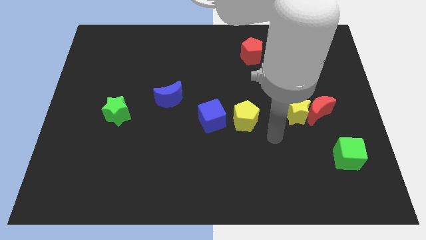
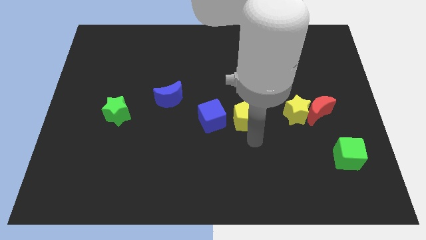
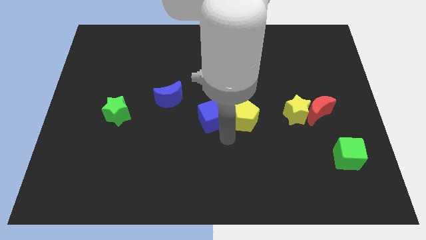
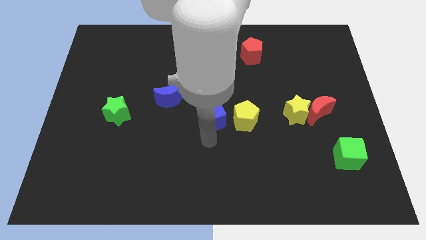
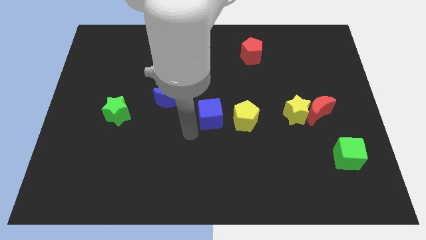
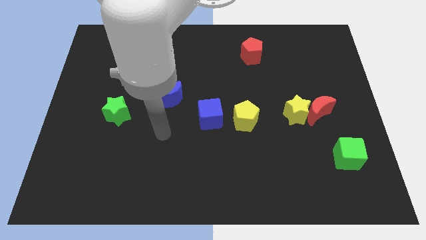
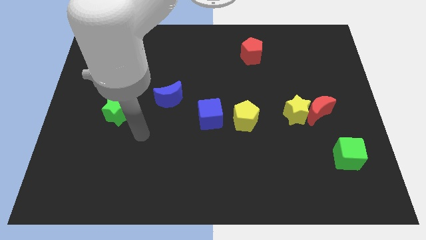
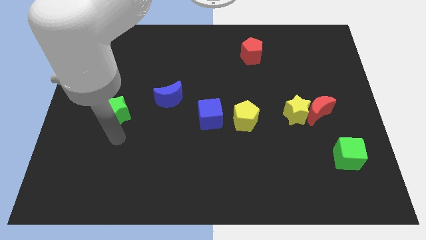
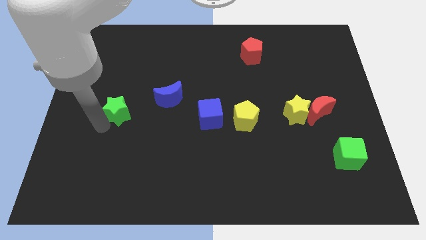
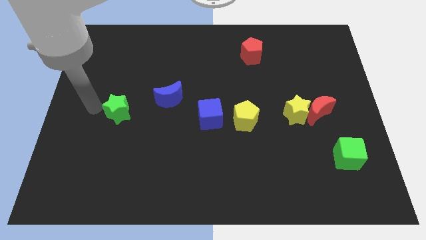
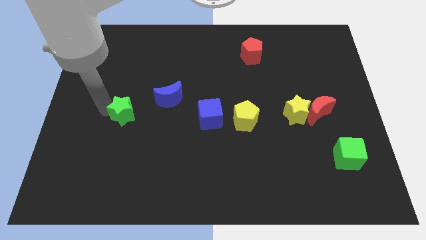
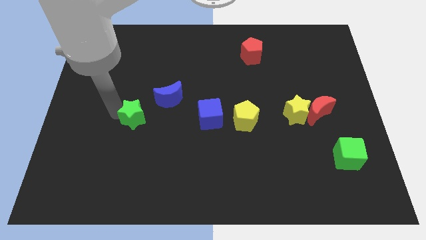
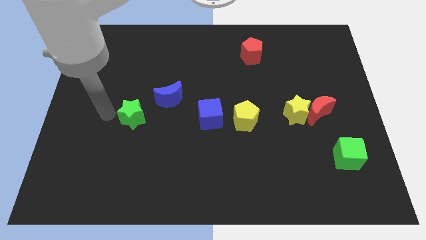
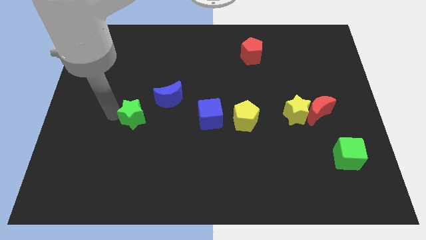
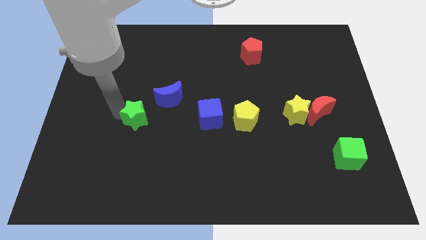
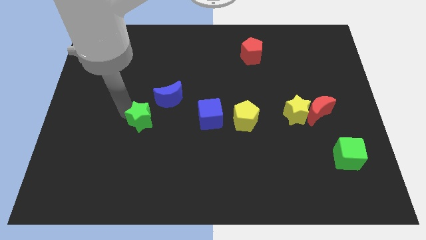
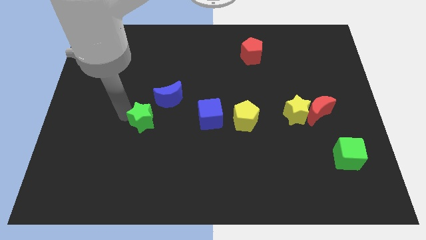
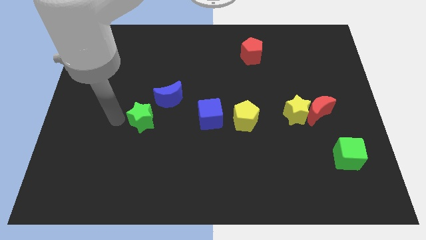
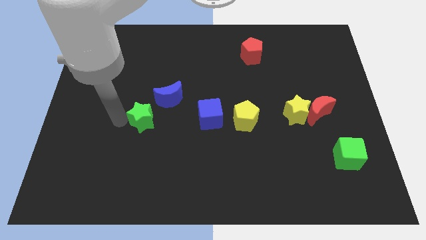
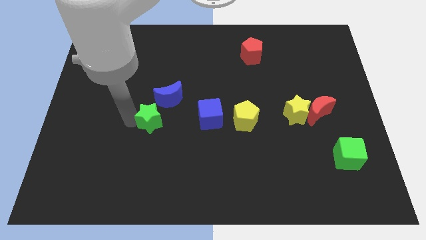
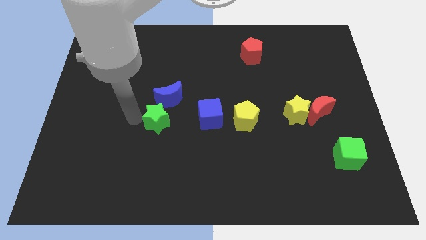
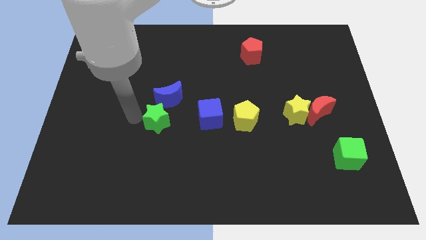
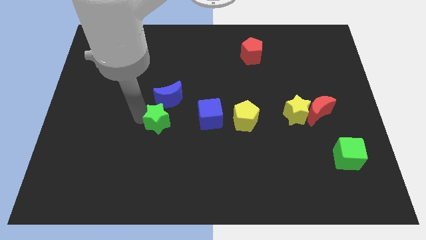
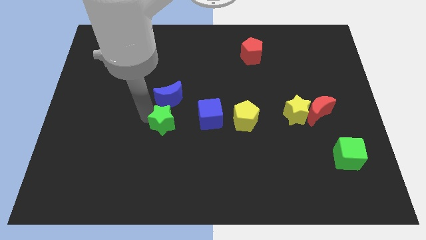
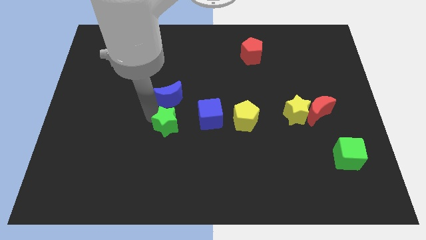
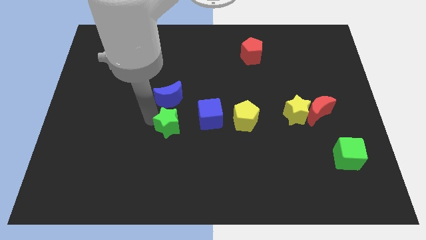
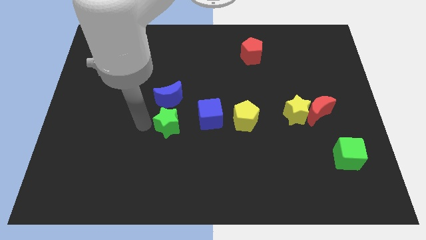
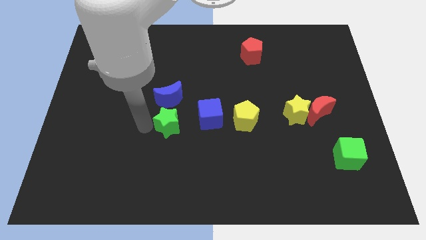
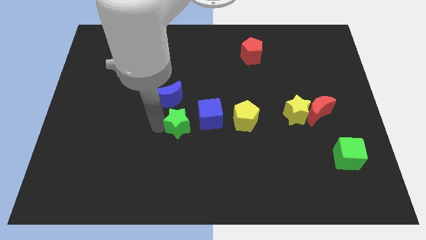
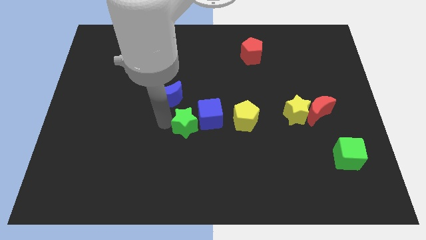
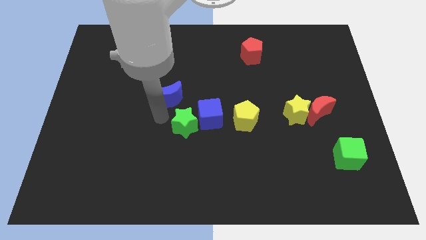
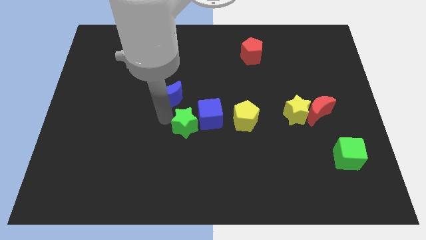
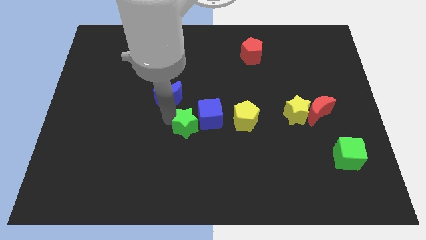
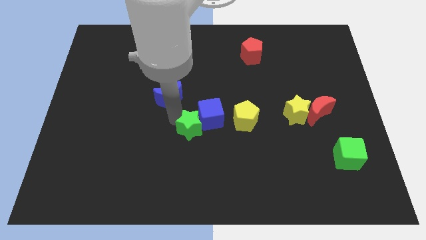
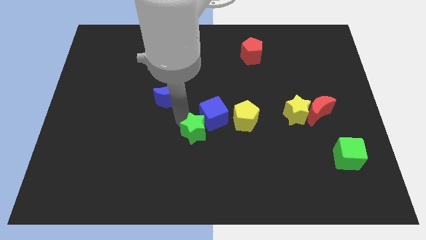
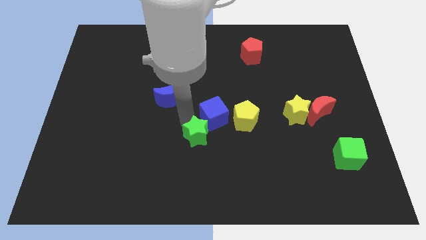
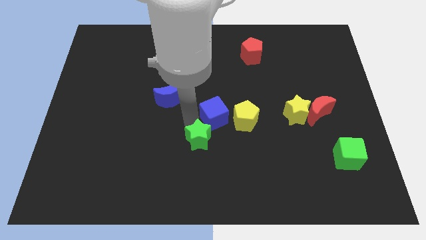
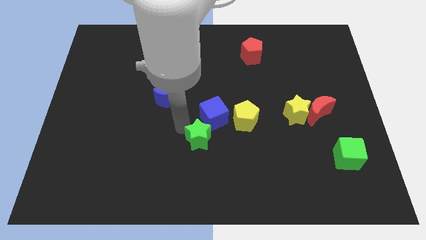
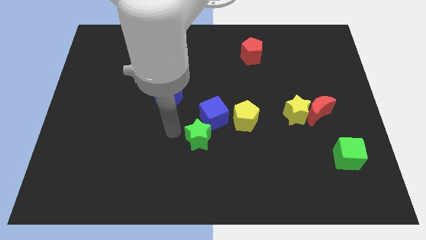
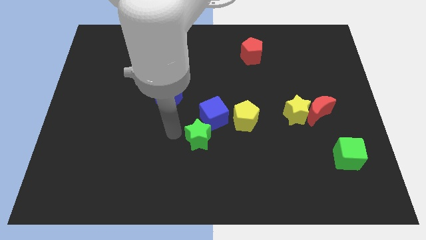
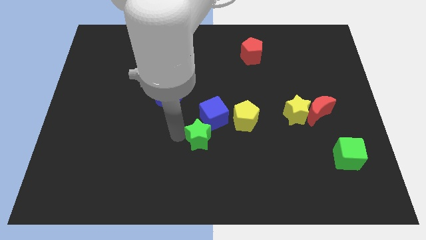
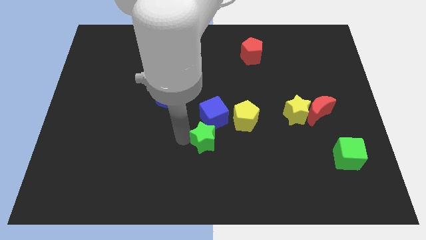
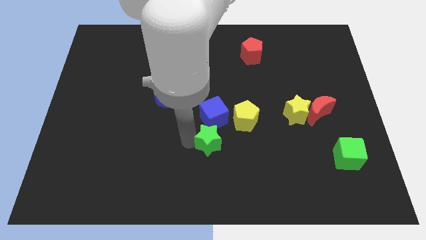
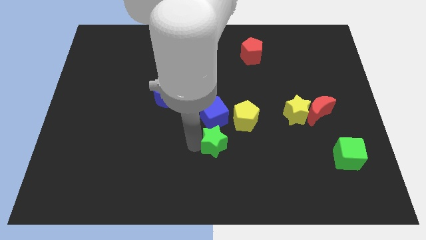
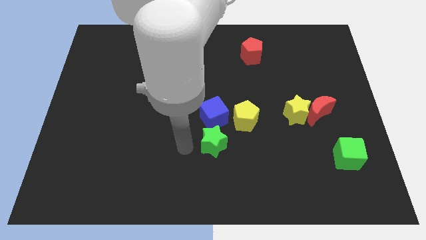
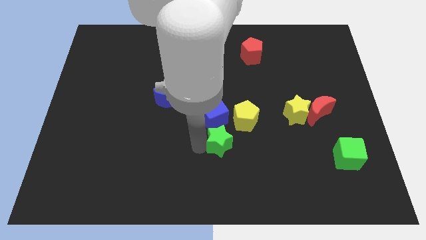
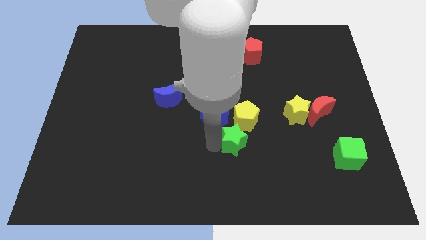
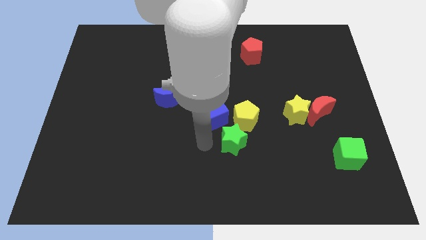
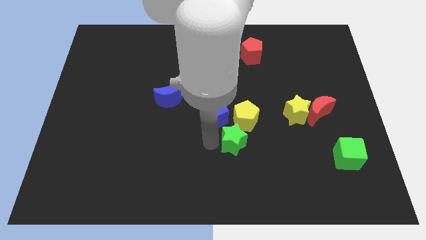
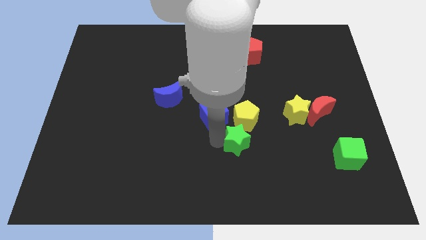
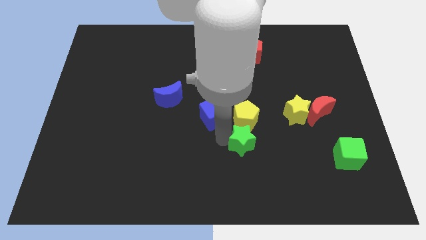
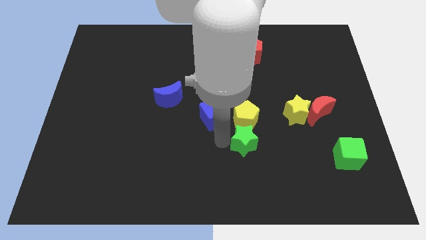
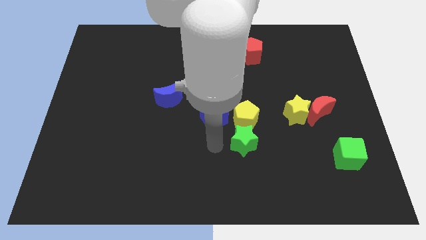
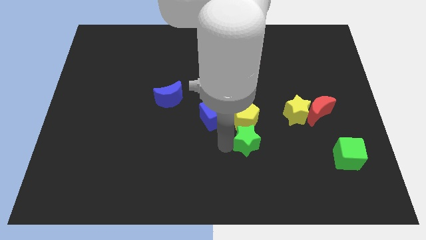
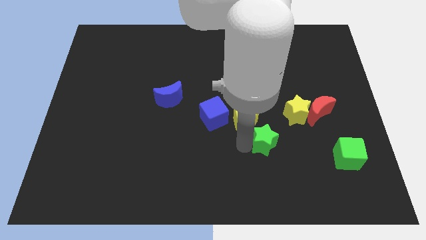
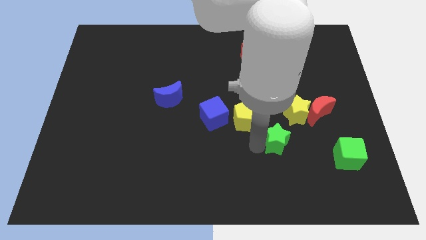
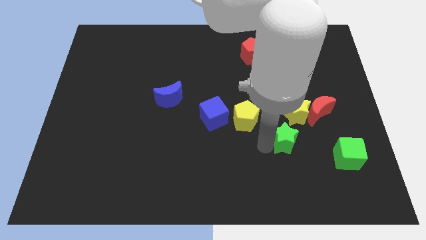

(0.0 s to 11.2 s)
slide the green star to the bottom left of the red moon

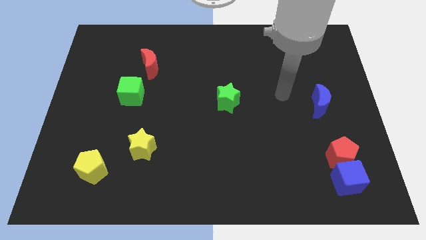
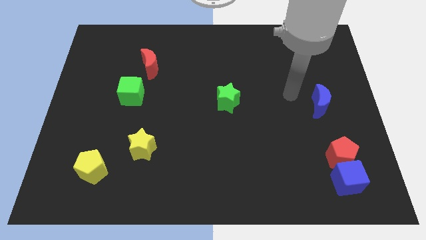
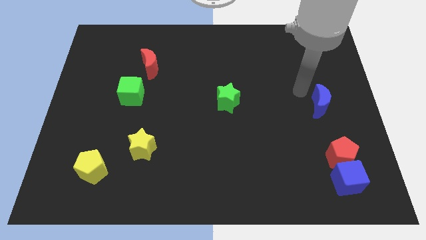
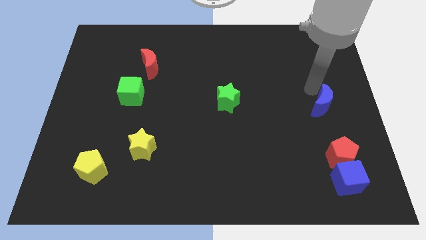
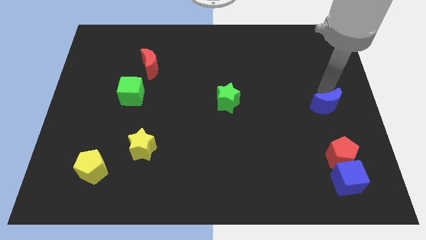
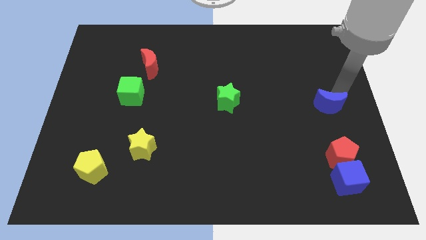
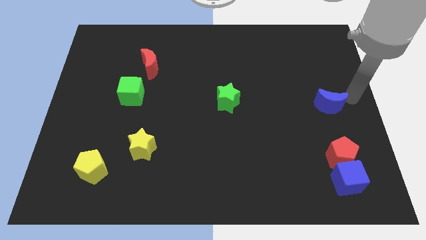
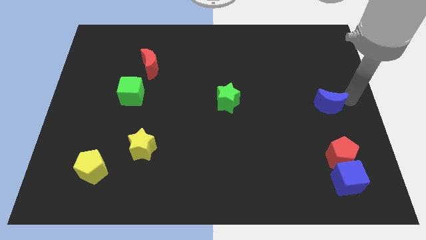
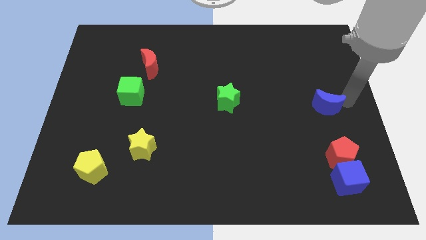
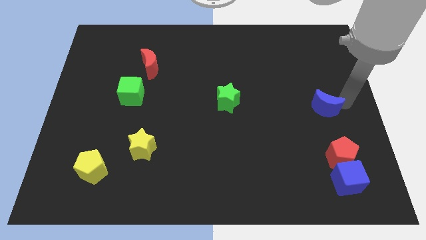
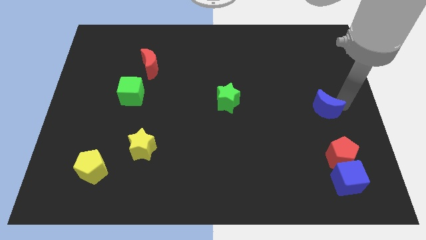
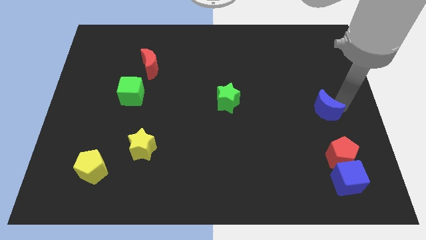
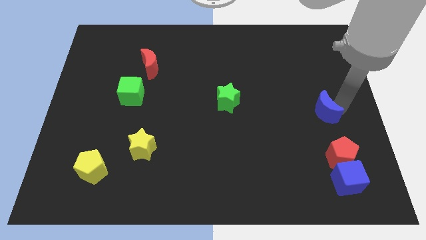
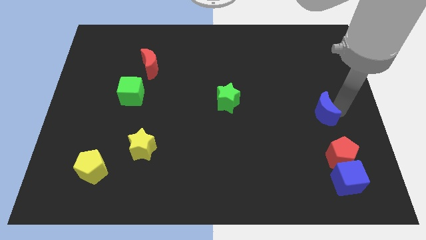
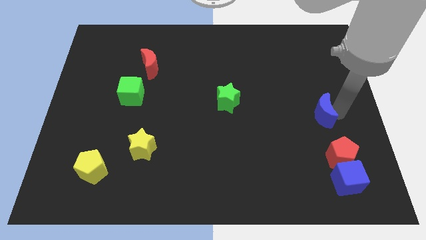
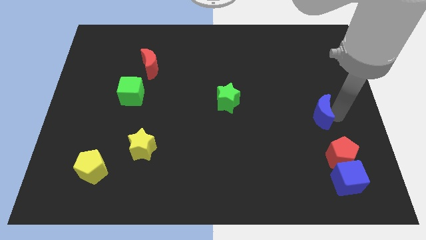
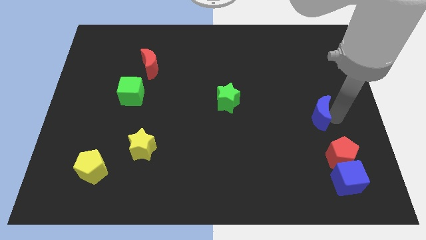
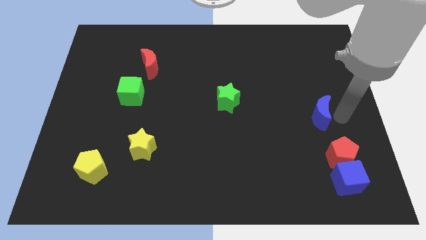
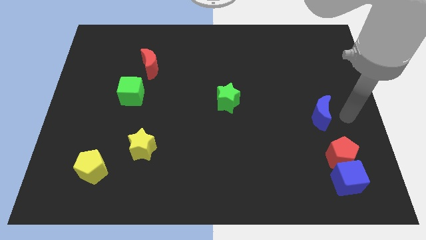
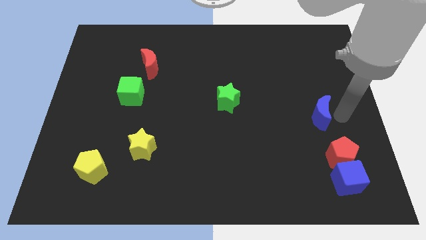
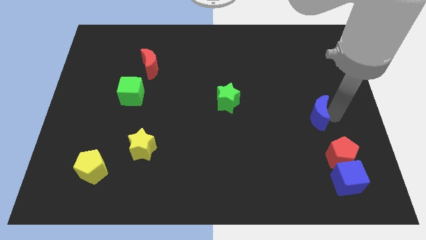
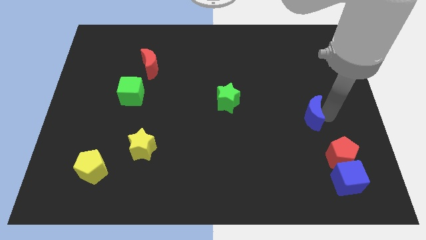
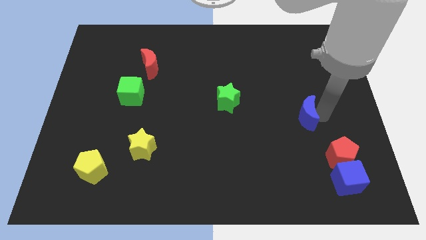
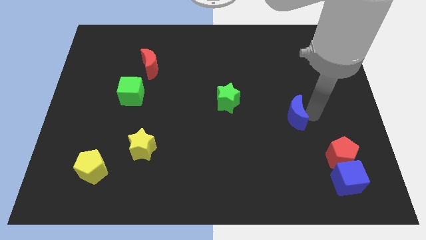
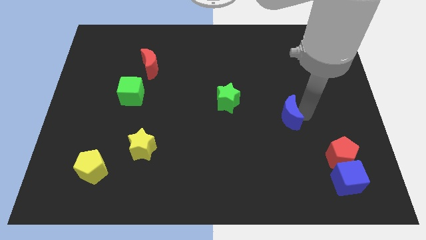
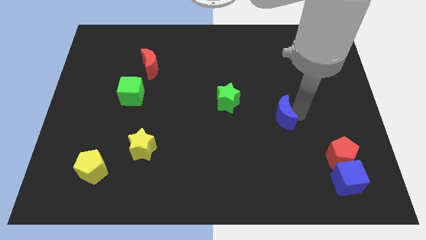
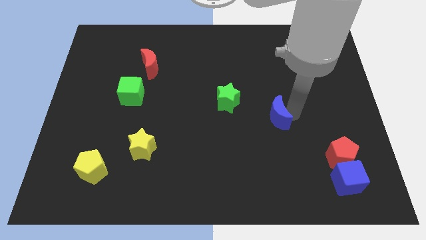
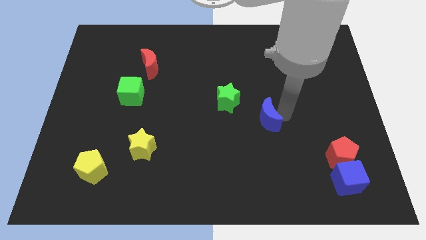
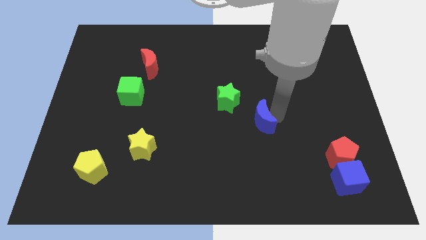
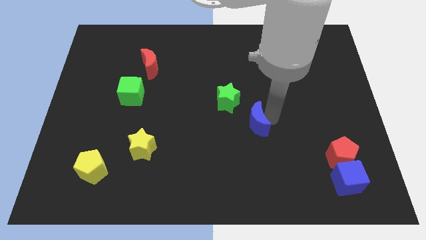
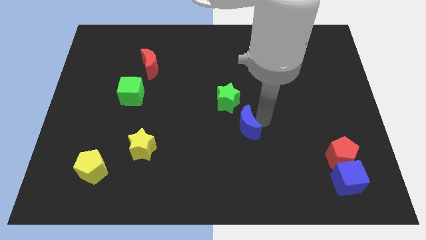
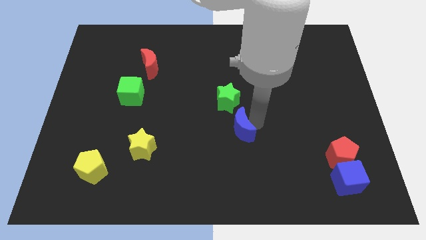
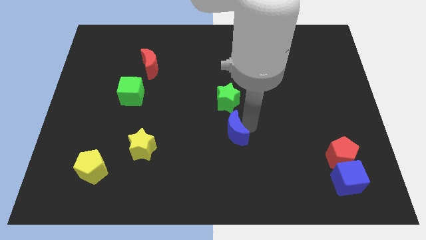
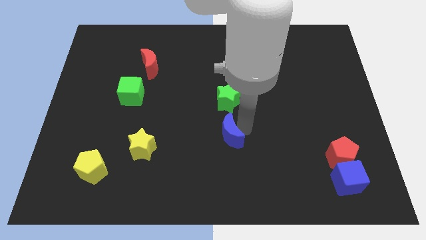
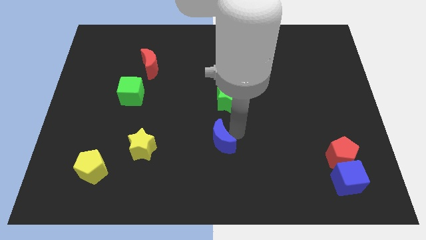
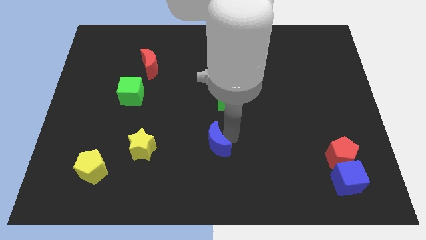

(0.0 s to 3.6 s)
move the blue moon to the right side of the yellow star
